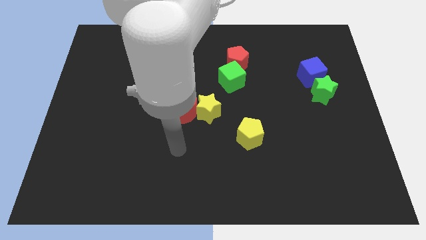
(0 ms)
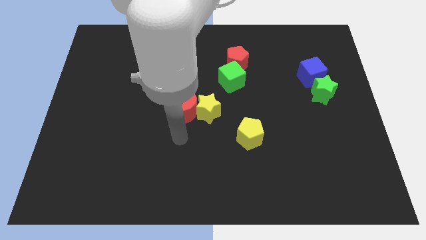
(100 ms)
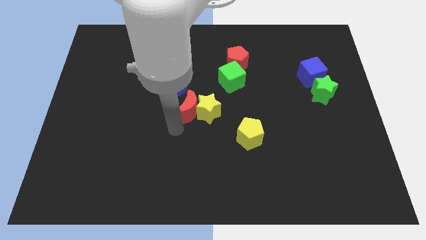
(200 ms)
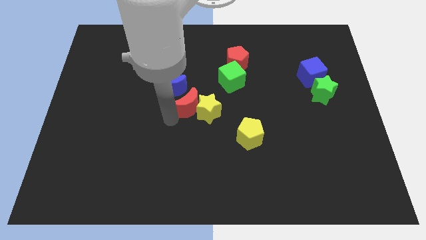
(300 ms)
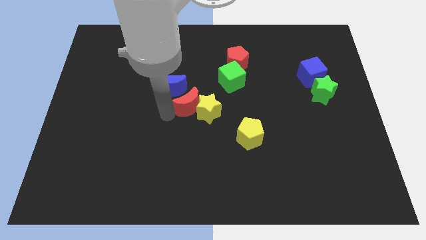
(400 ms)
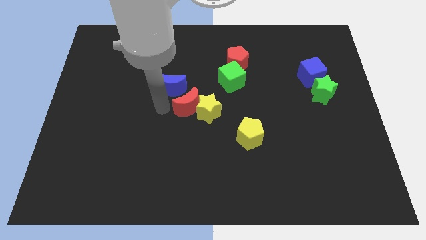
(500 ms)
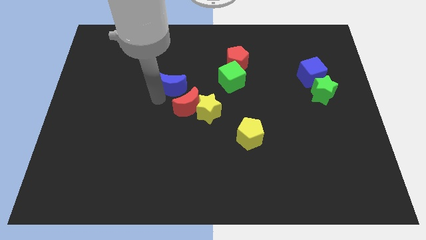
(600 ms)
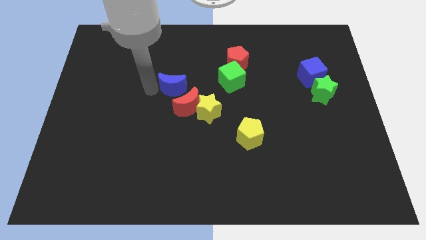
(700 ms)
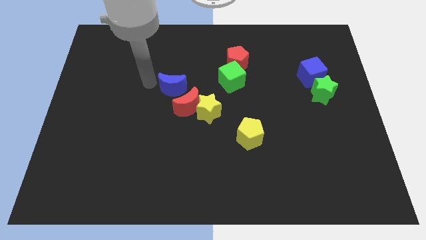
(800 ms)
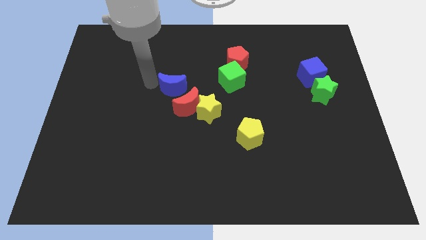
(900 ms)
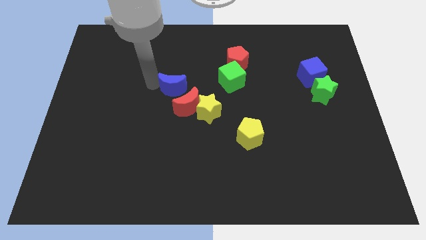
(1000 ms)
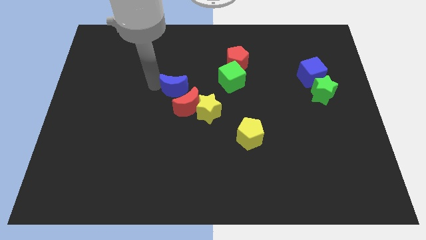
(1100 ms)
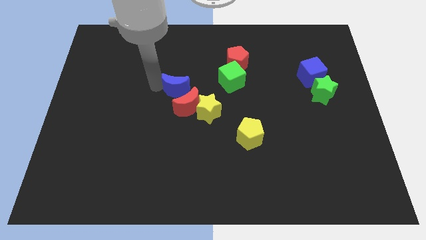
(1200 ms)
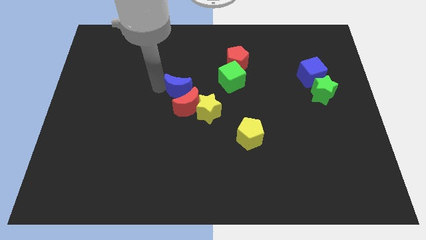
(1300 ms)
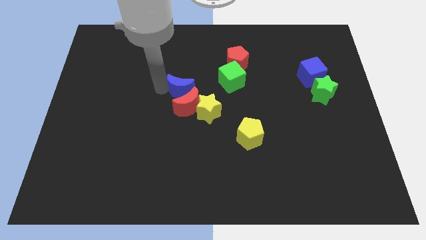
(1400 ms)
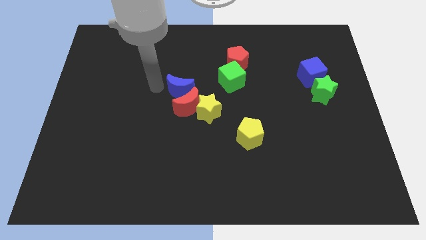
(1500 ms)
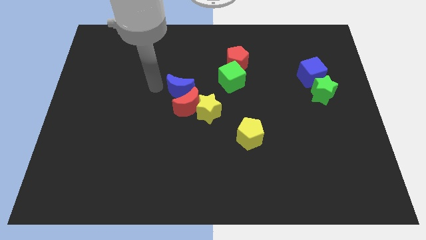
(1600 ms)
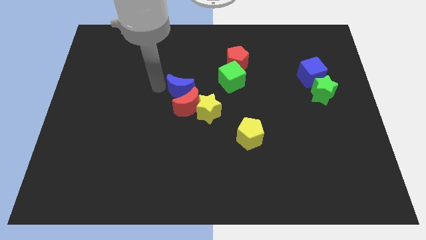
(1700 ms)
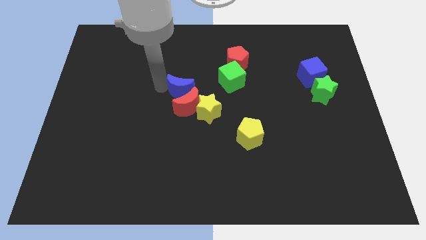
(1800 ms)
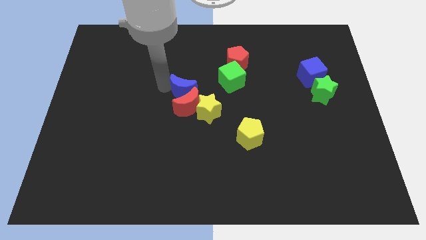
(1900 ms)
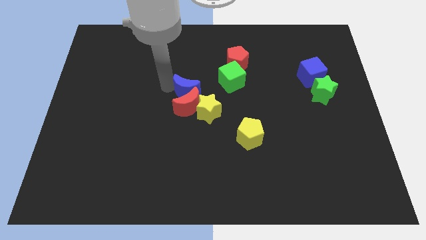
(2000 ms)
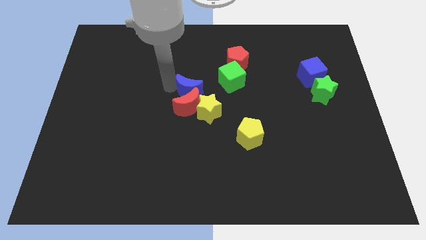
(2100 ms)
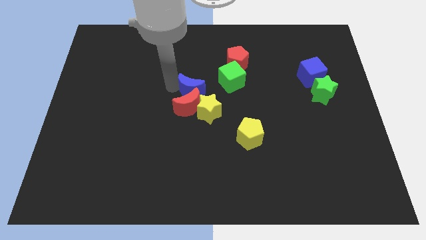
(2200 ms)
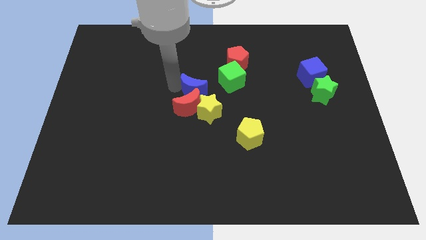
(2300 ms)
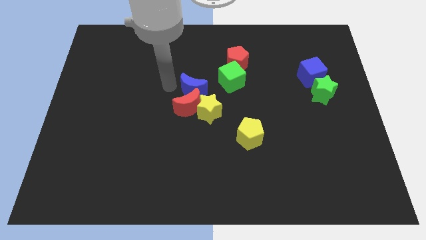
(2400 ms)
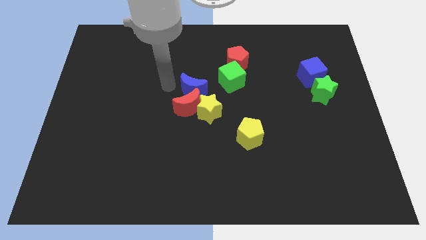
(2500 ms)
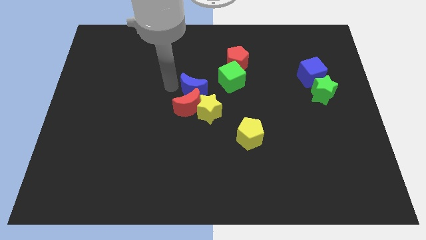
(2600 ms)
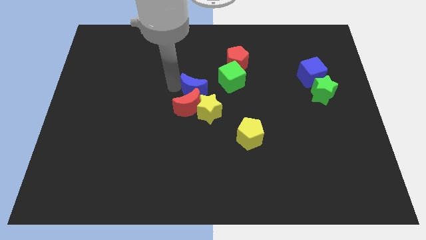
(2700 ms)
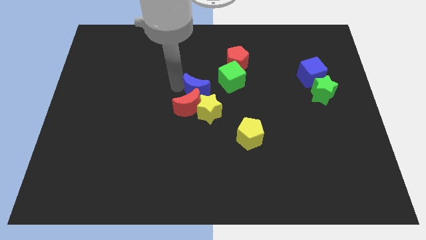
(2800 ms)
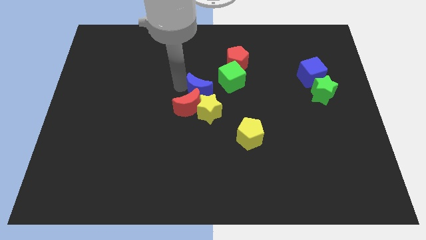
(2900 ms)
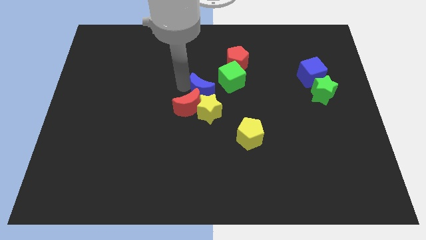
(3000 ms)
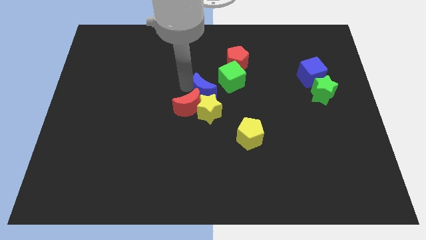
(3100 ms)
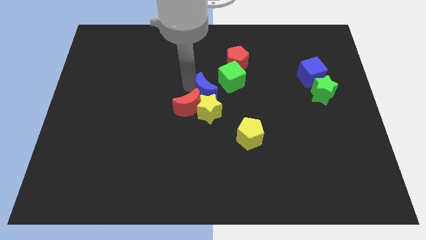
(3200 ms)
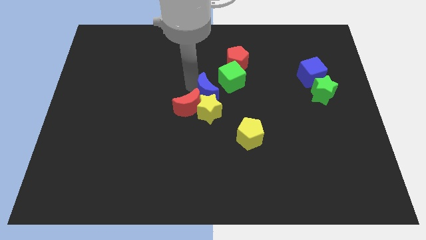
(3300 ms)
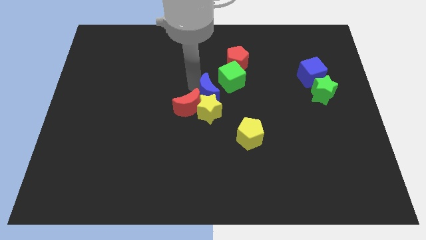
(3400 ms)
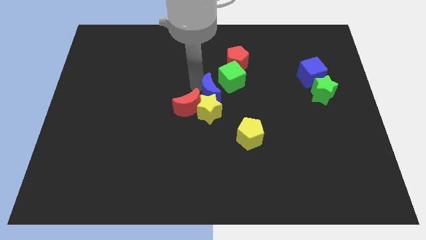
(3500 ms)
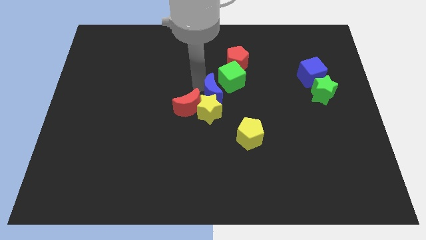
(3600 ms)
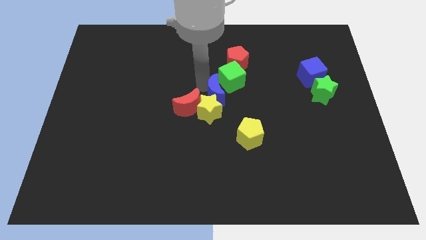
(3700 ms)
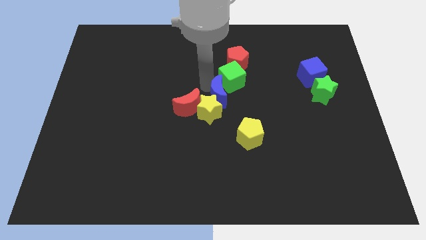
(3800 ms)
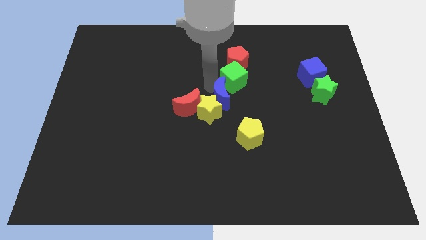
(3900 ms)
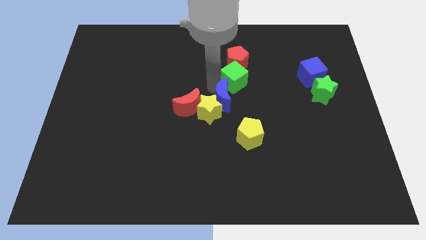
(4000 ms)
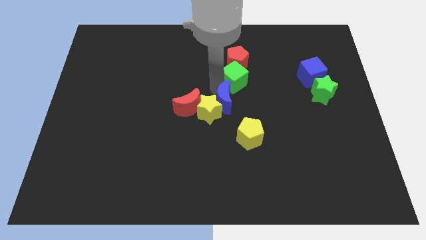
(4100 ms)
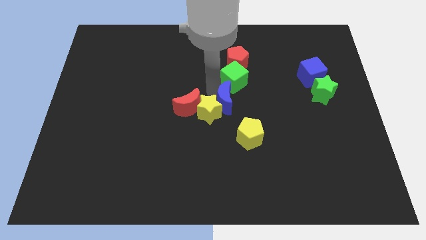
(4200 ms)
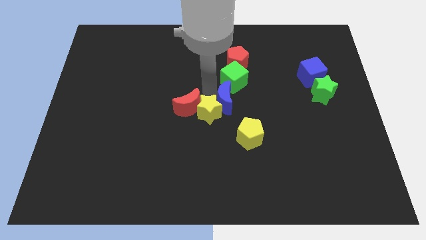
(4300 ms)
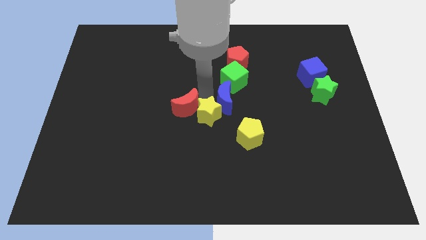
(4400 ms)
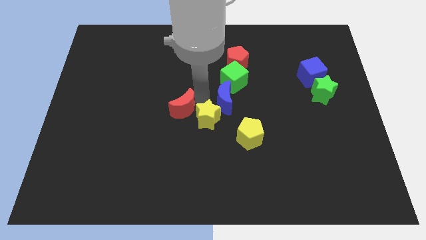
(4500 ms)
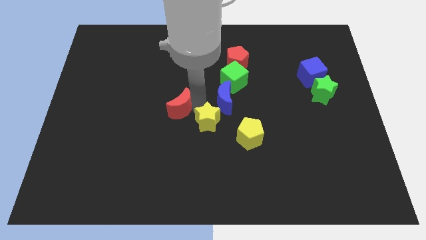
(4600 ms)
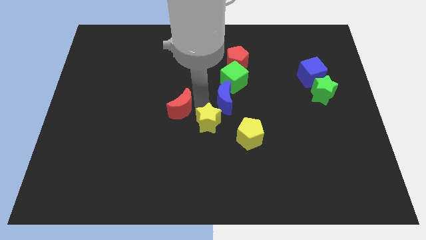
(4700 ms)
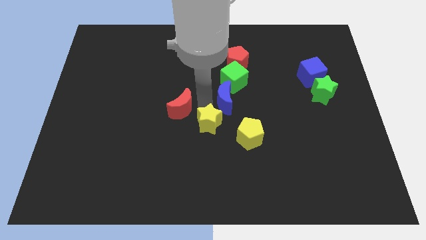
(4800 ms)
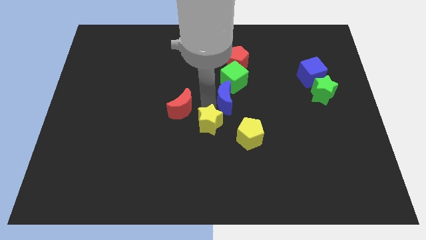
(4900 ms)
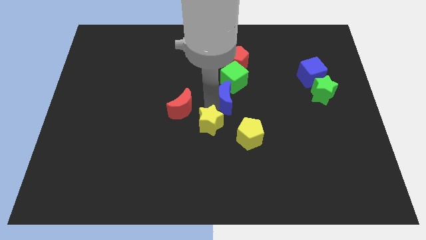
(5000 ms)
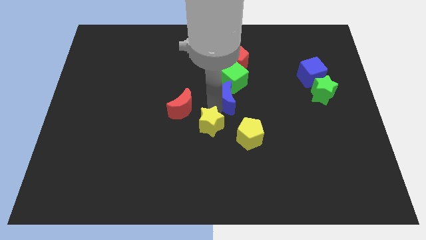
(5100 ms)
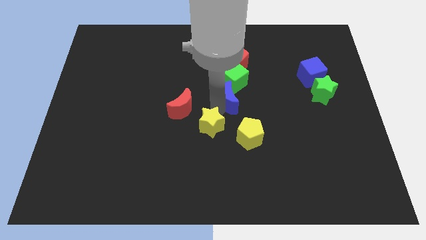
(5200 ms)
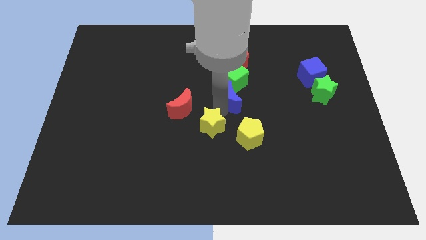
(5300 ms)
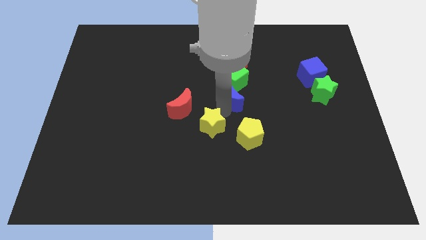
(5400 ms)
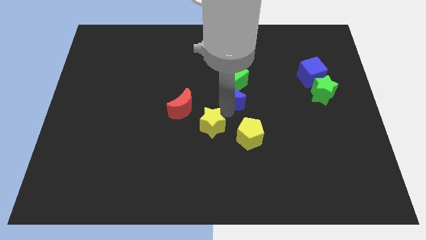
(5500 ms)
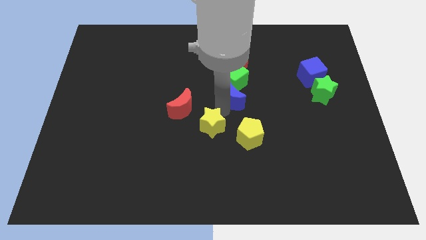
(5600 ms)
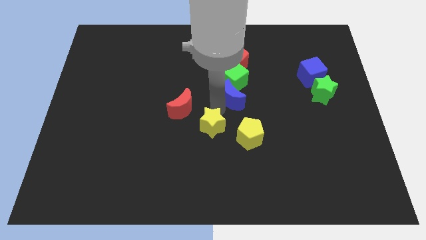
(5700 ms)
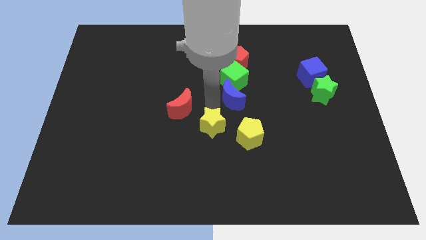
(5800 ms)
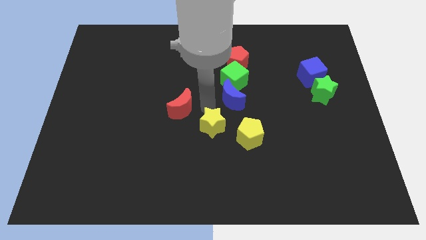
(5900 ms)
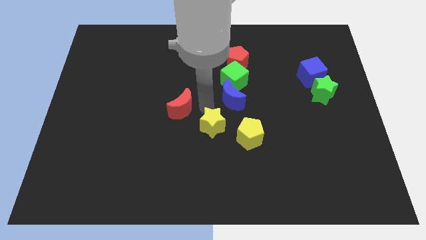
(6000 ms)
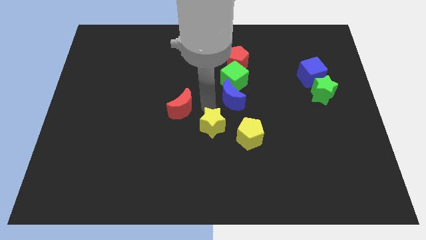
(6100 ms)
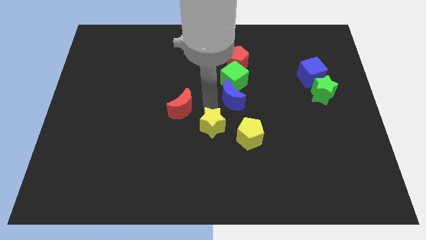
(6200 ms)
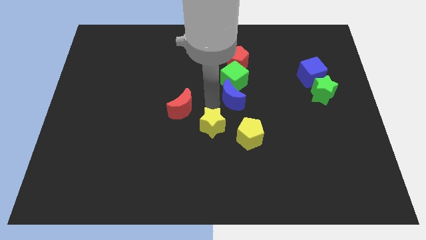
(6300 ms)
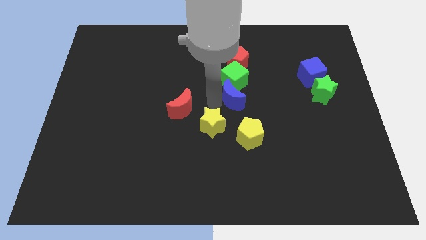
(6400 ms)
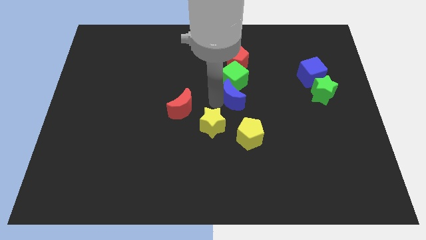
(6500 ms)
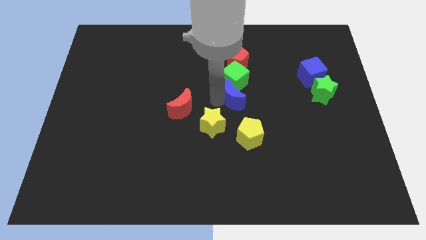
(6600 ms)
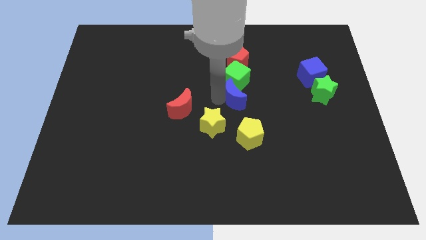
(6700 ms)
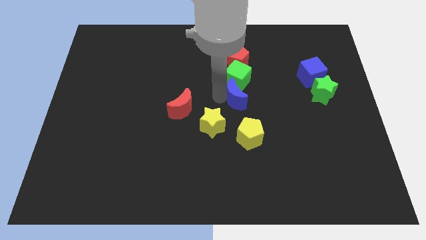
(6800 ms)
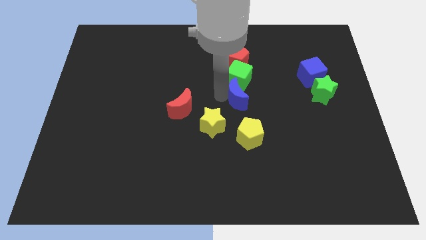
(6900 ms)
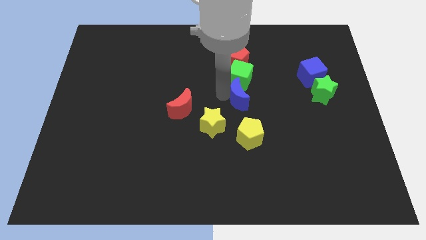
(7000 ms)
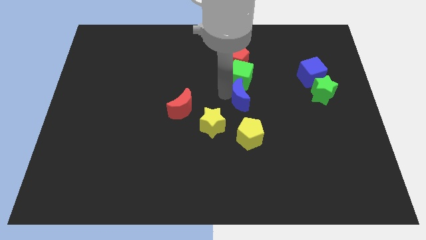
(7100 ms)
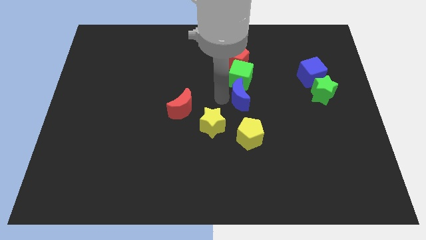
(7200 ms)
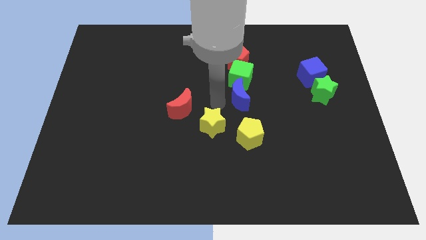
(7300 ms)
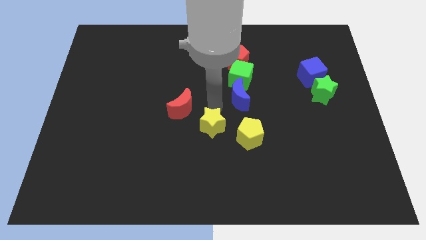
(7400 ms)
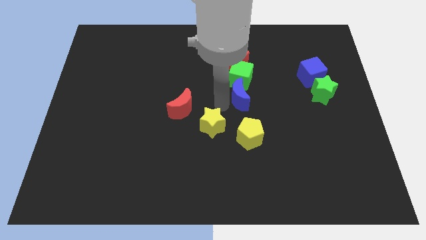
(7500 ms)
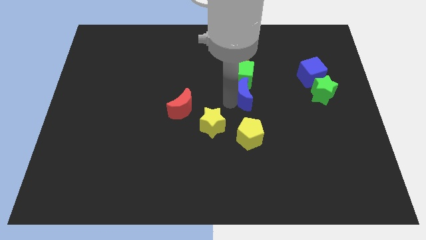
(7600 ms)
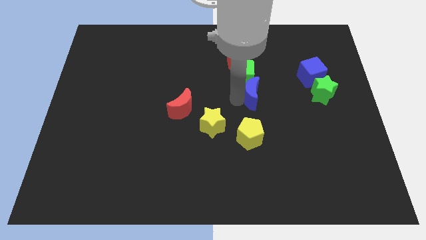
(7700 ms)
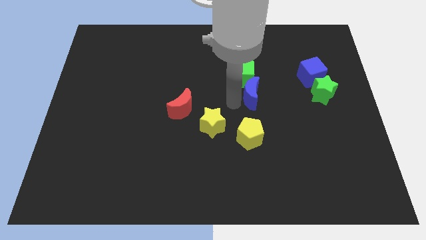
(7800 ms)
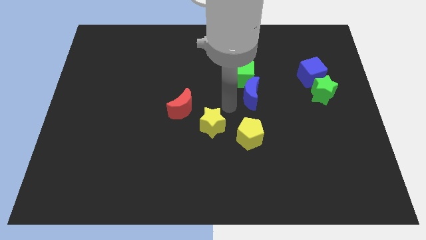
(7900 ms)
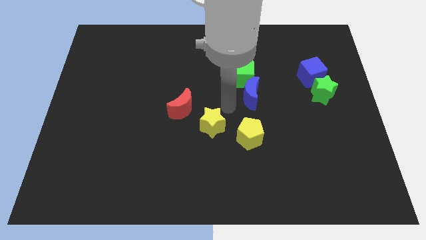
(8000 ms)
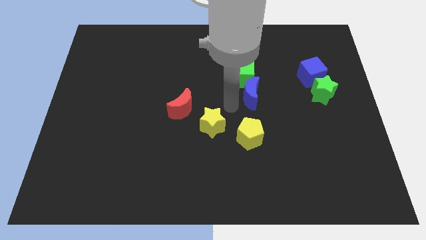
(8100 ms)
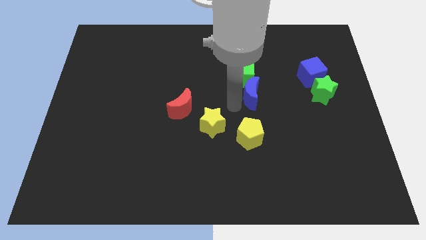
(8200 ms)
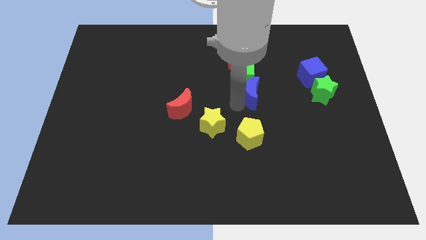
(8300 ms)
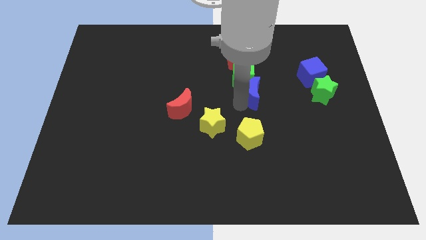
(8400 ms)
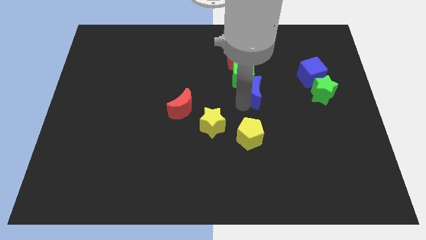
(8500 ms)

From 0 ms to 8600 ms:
slide the blue moon to the right

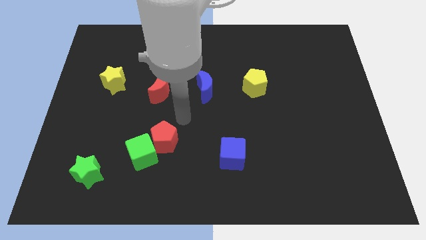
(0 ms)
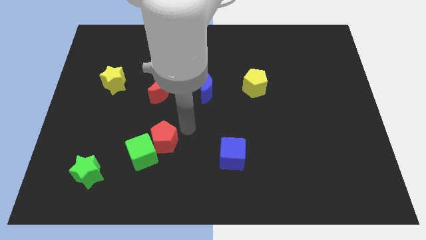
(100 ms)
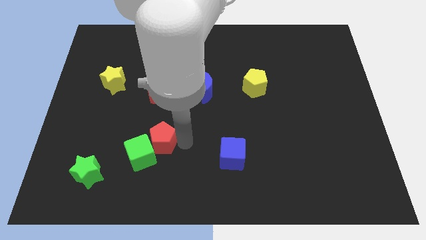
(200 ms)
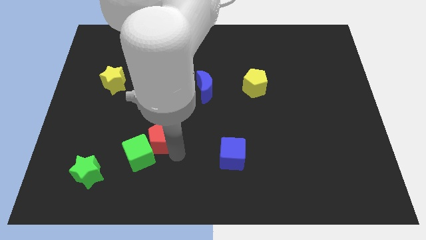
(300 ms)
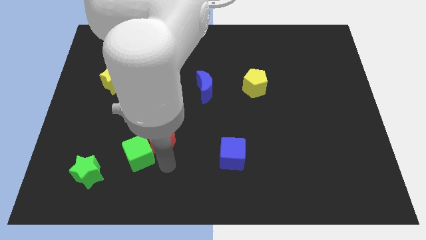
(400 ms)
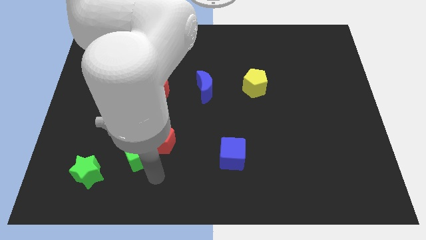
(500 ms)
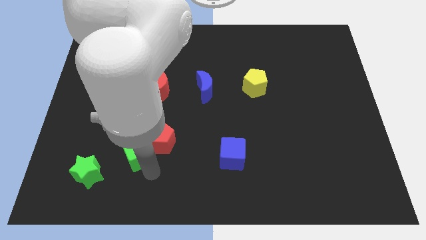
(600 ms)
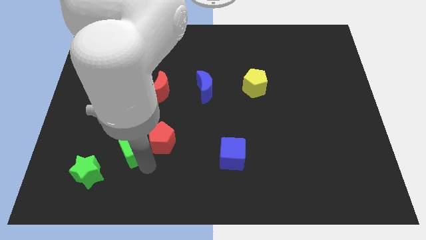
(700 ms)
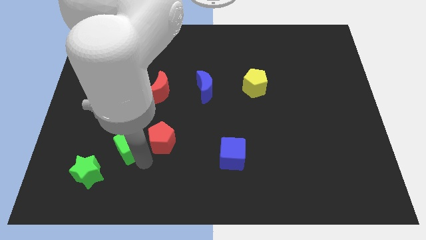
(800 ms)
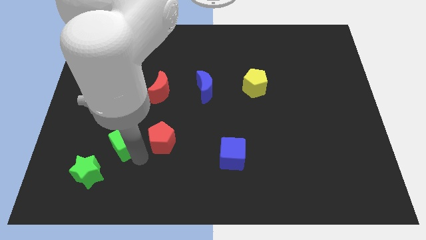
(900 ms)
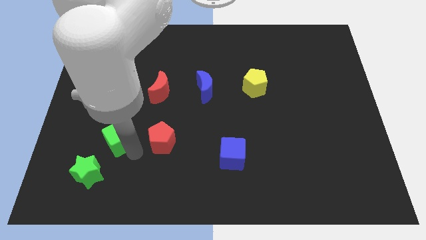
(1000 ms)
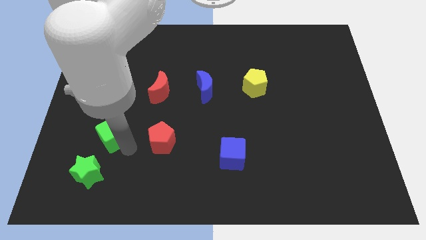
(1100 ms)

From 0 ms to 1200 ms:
slightly push the green cube upwards and then to the left
